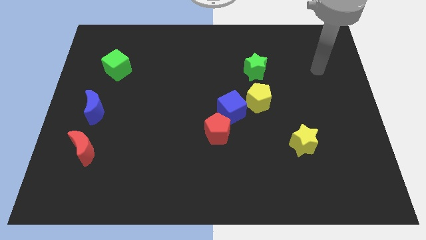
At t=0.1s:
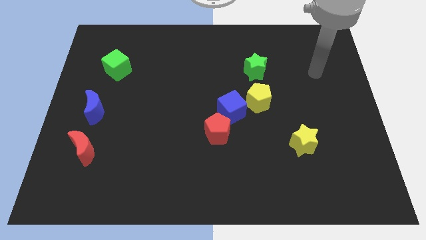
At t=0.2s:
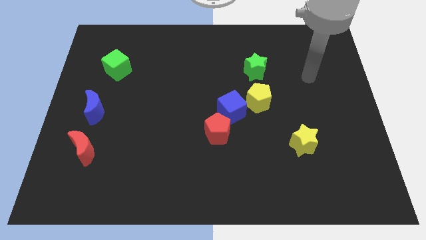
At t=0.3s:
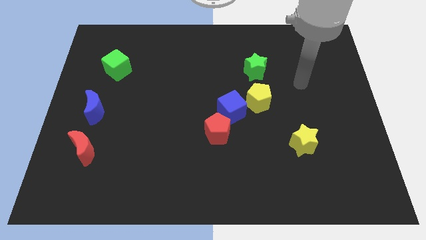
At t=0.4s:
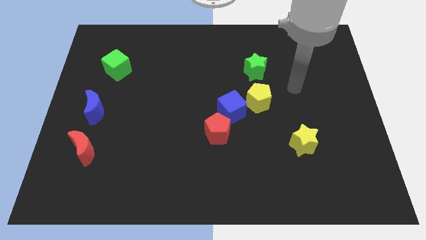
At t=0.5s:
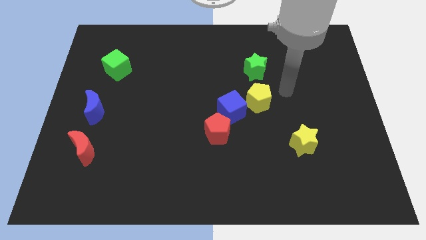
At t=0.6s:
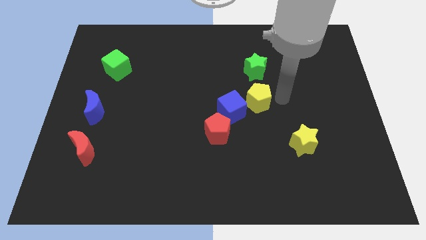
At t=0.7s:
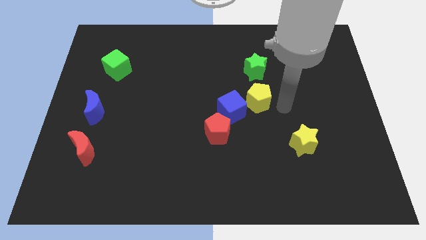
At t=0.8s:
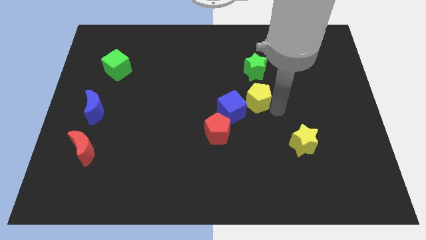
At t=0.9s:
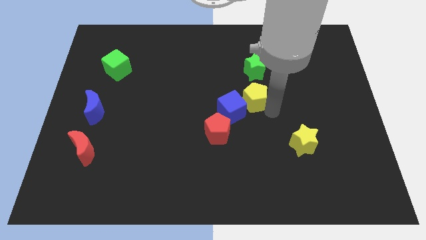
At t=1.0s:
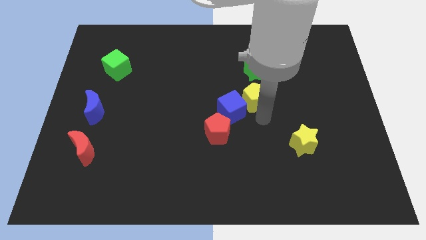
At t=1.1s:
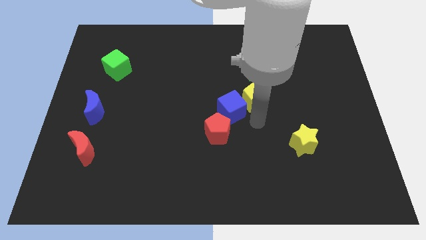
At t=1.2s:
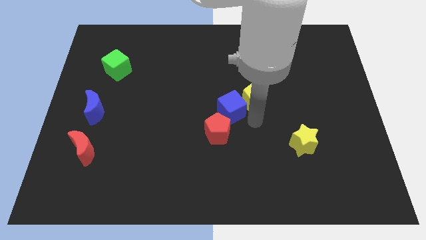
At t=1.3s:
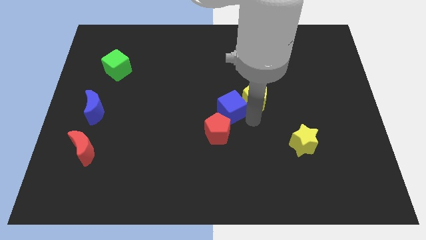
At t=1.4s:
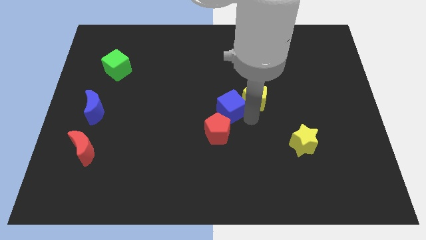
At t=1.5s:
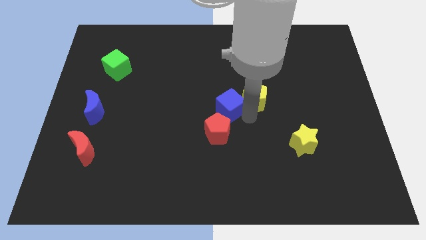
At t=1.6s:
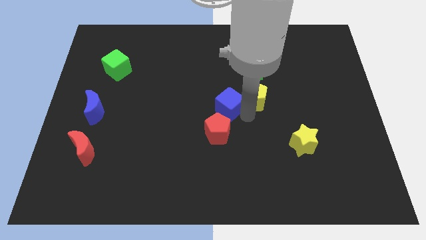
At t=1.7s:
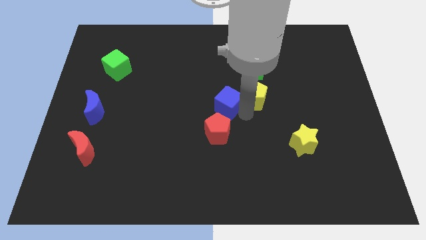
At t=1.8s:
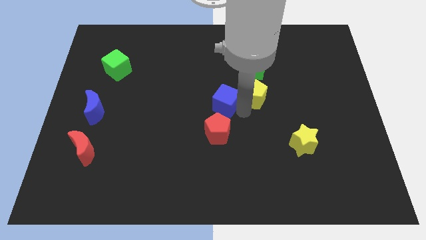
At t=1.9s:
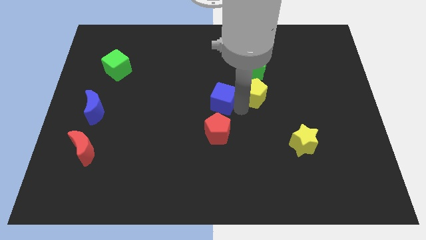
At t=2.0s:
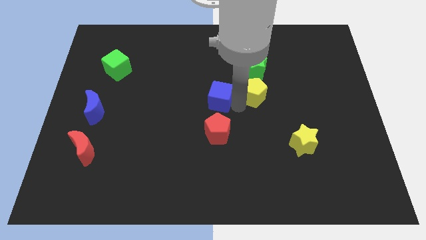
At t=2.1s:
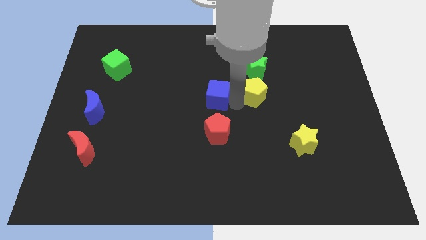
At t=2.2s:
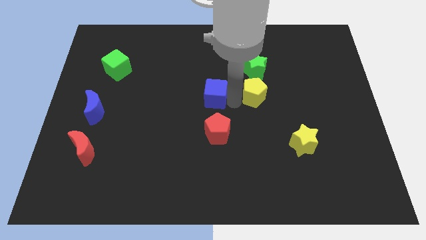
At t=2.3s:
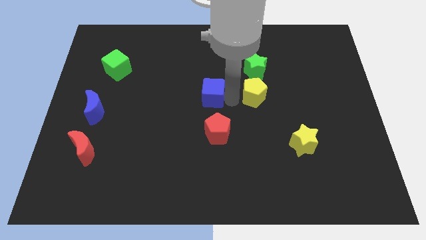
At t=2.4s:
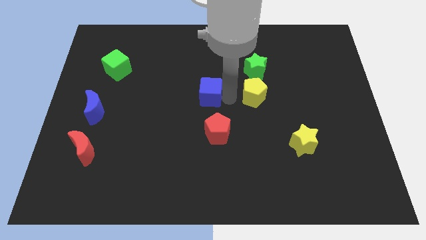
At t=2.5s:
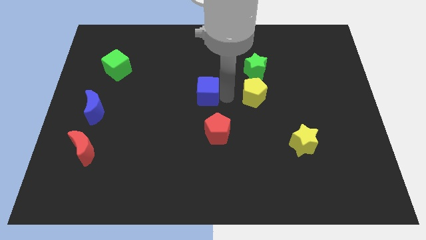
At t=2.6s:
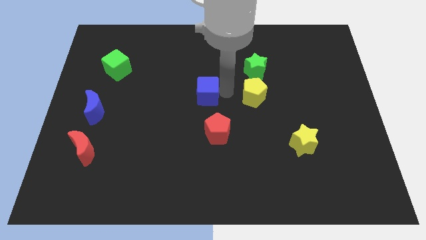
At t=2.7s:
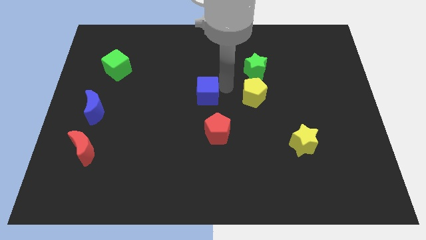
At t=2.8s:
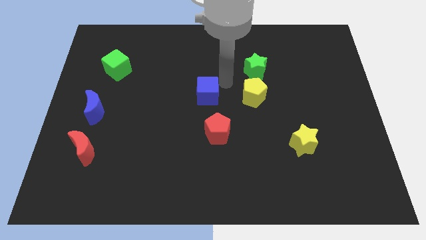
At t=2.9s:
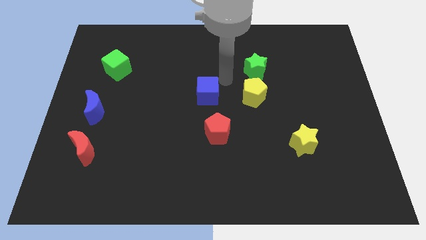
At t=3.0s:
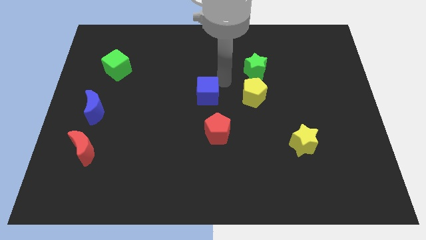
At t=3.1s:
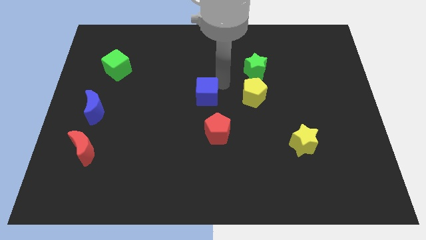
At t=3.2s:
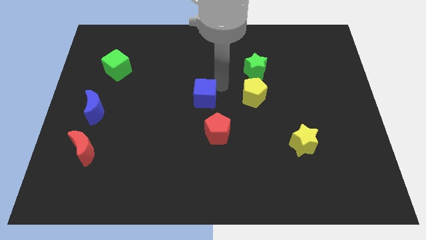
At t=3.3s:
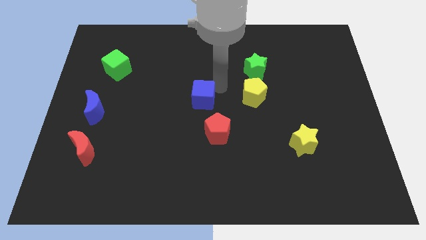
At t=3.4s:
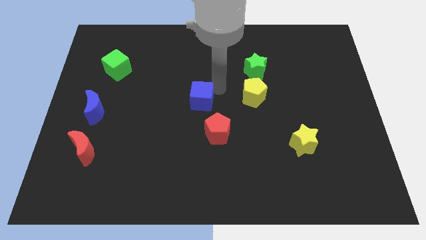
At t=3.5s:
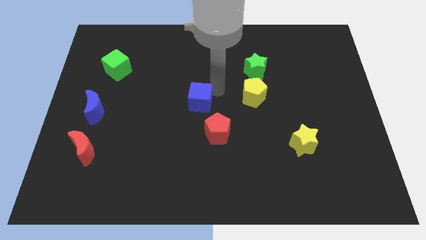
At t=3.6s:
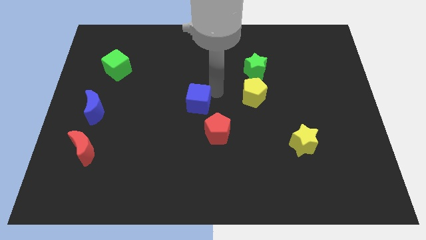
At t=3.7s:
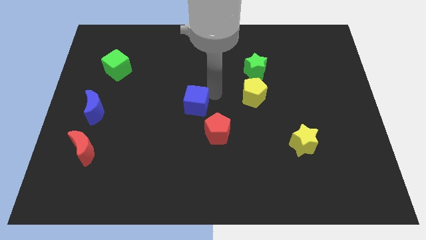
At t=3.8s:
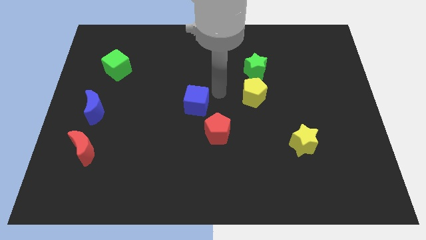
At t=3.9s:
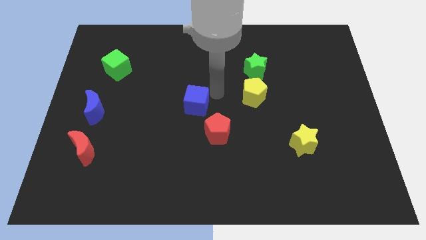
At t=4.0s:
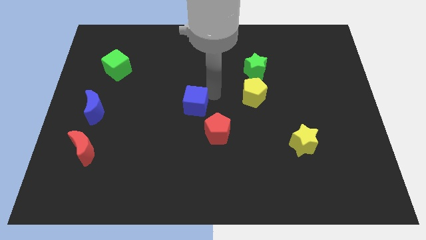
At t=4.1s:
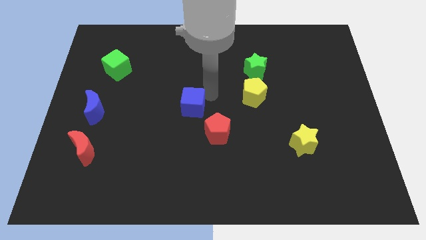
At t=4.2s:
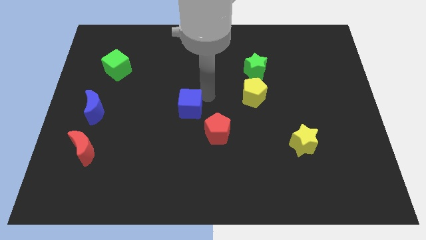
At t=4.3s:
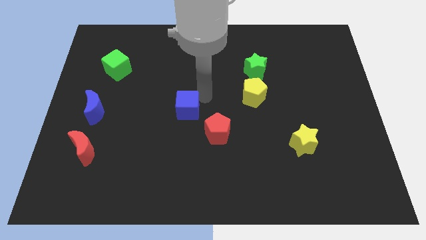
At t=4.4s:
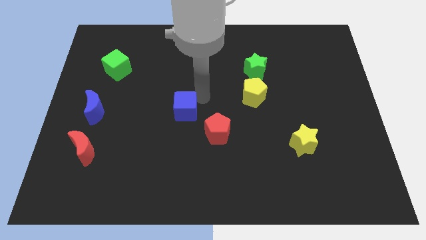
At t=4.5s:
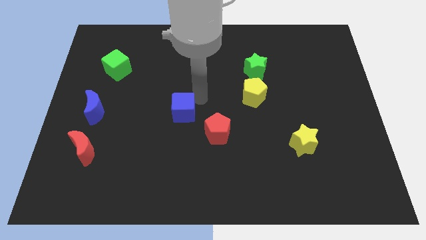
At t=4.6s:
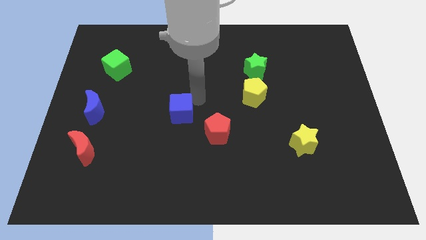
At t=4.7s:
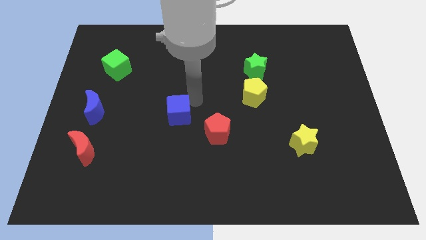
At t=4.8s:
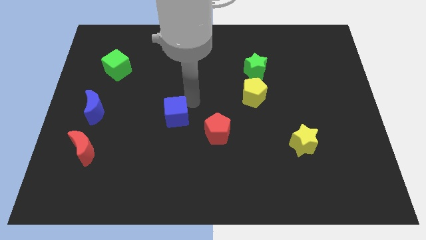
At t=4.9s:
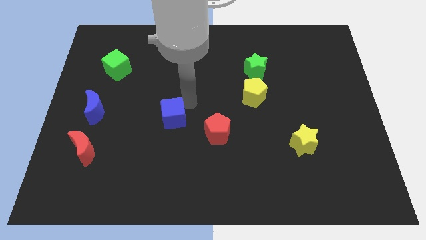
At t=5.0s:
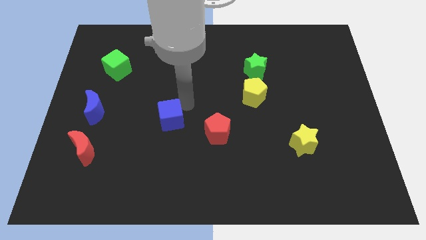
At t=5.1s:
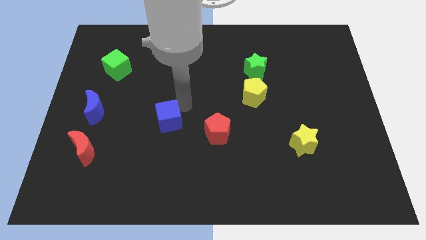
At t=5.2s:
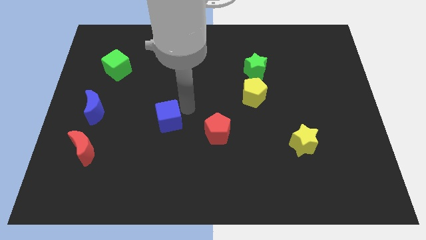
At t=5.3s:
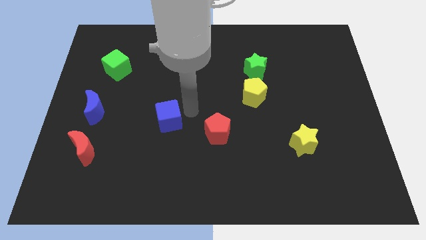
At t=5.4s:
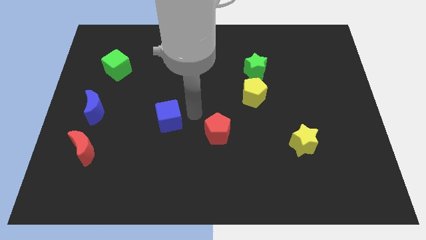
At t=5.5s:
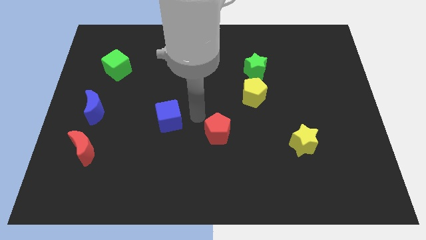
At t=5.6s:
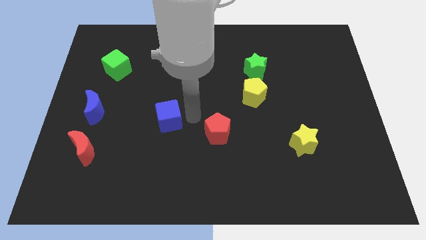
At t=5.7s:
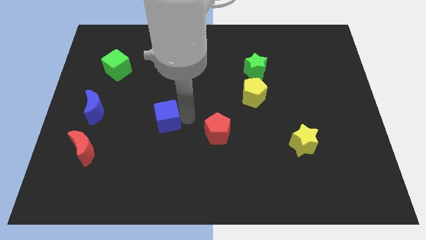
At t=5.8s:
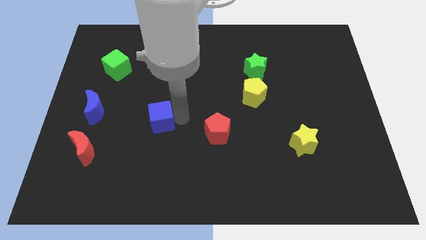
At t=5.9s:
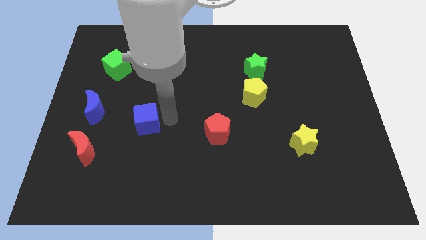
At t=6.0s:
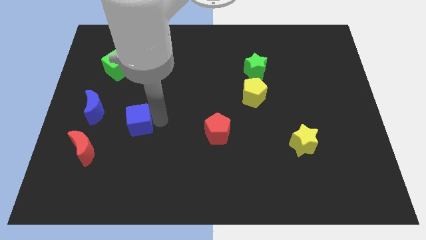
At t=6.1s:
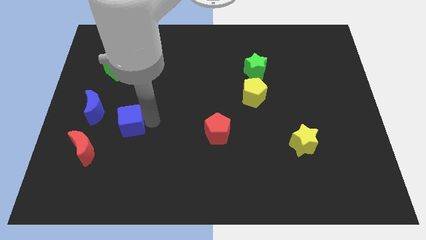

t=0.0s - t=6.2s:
put the blue cube to the top right of the red moon
